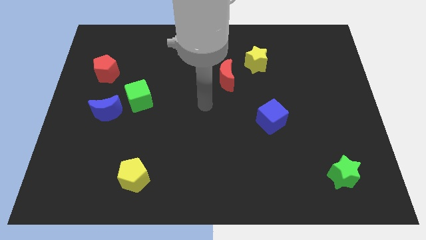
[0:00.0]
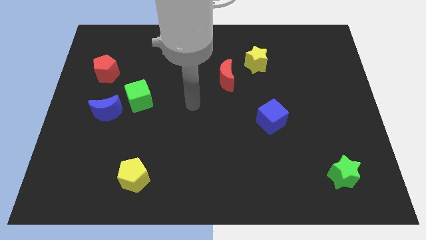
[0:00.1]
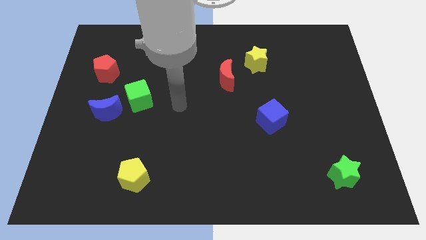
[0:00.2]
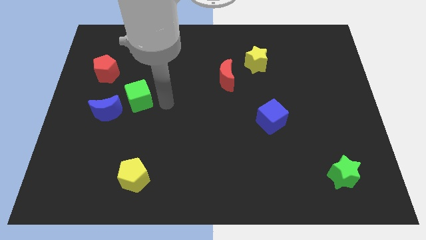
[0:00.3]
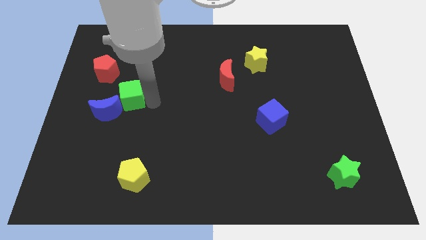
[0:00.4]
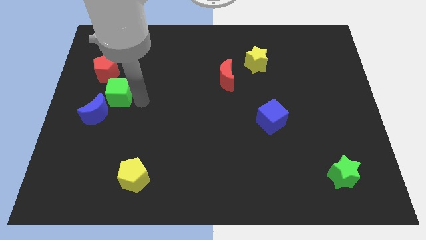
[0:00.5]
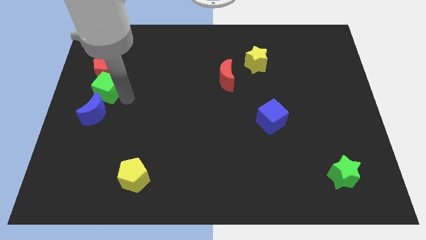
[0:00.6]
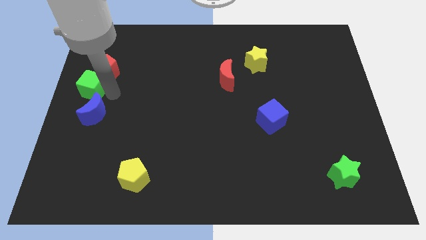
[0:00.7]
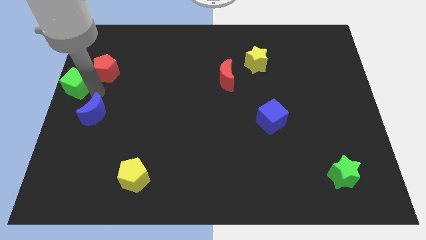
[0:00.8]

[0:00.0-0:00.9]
pull the blue moon apart from the green cube

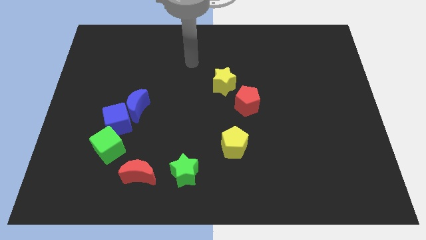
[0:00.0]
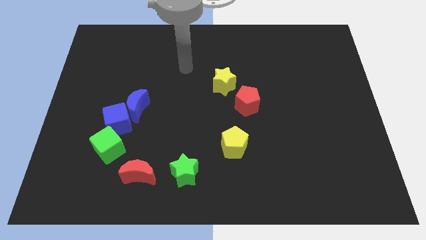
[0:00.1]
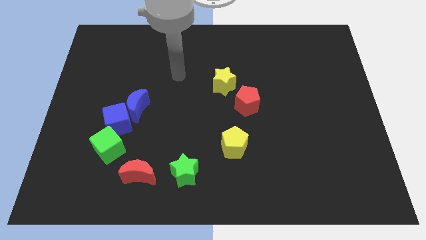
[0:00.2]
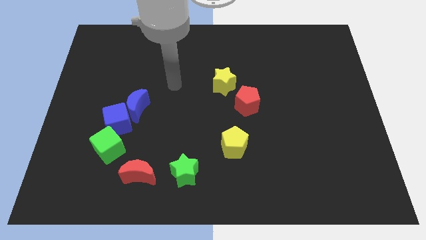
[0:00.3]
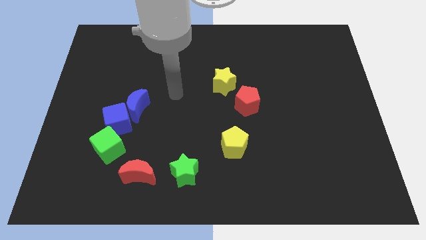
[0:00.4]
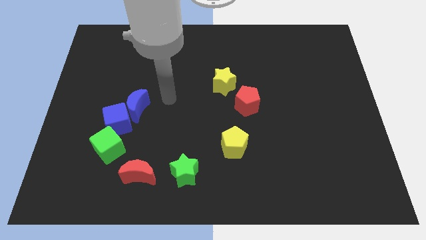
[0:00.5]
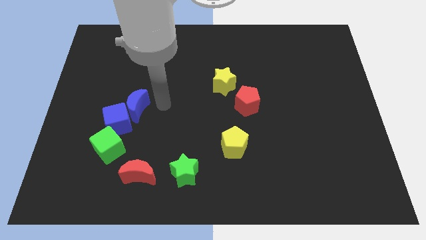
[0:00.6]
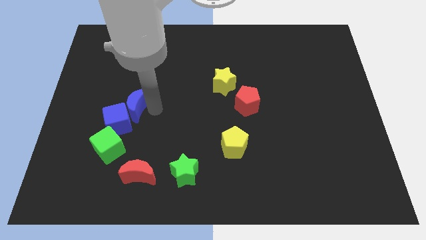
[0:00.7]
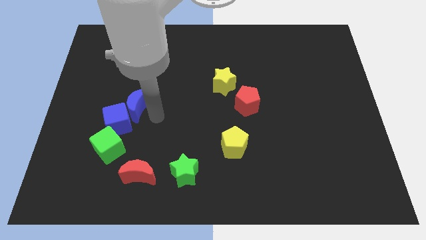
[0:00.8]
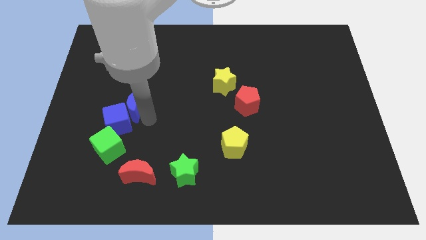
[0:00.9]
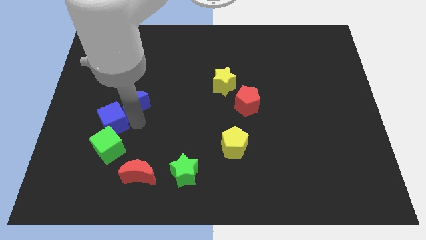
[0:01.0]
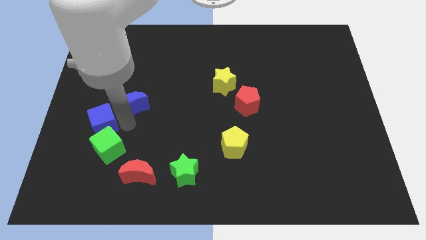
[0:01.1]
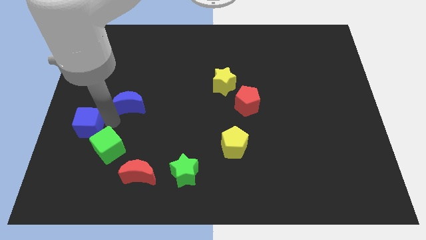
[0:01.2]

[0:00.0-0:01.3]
move the blue moon away from the blue cube

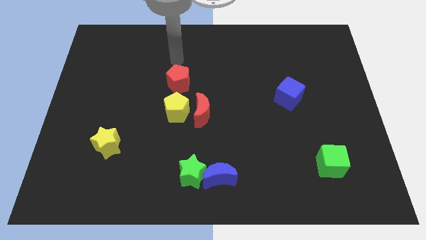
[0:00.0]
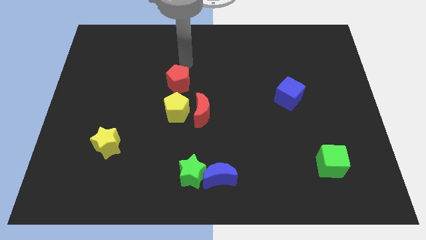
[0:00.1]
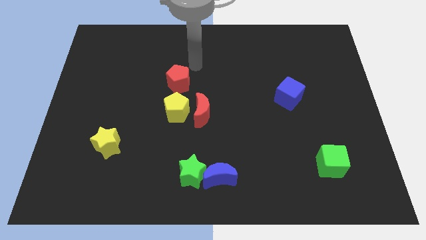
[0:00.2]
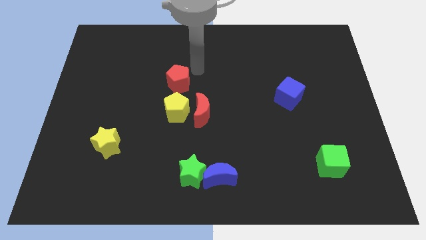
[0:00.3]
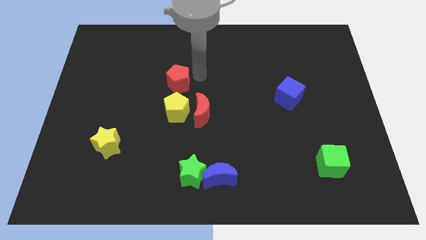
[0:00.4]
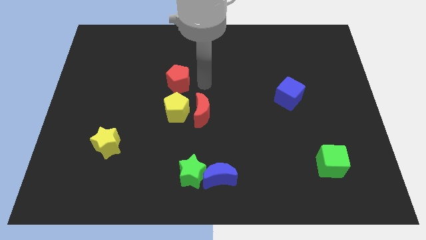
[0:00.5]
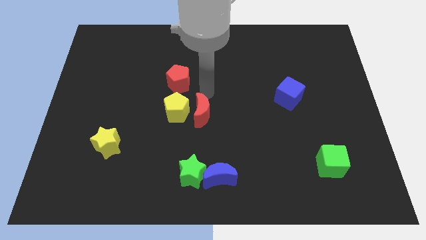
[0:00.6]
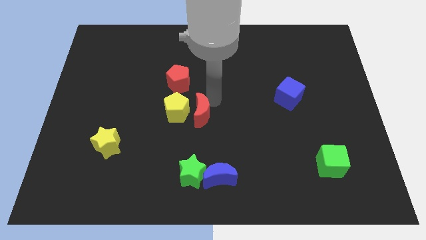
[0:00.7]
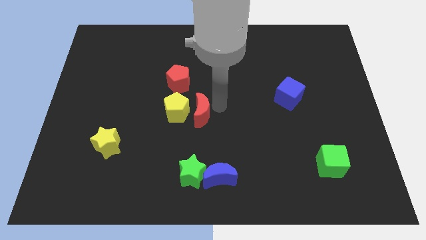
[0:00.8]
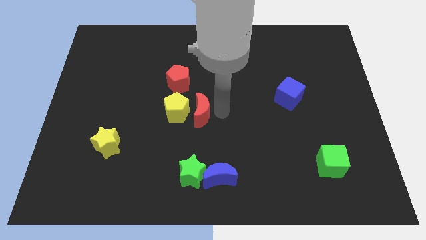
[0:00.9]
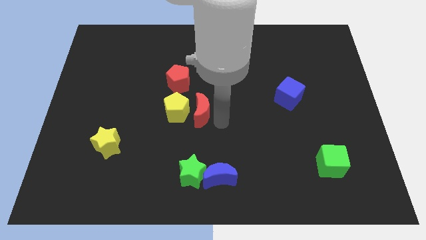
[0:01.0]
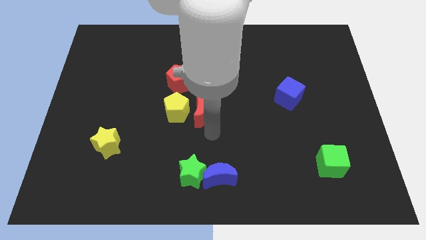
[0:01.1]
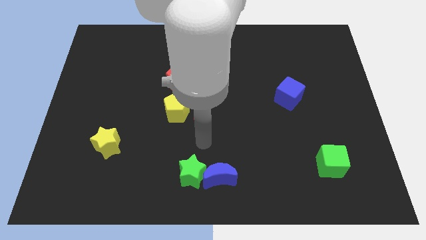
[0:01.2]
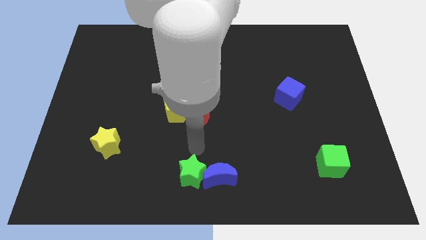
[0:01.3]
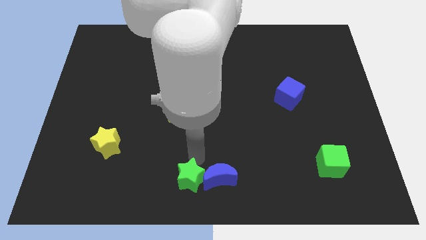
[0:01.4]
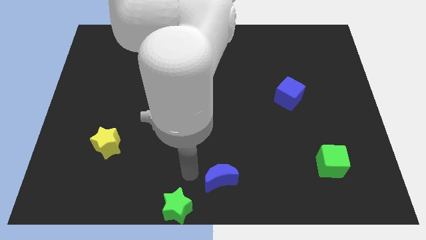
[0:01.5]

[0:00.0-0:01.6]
pull the blue moon apart from the green star

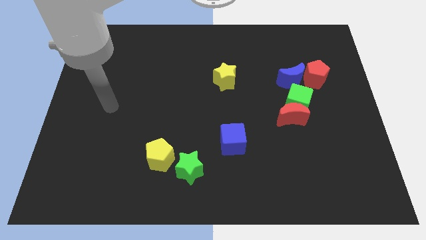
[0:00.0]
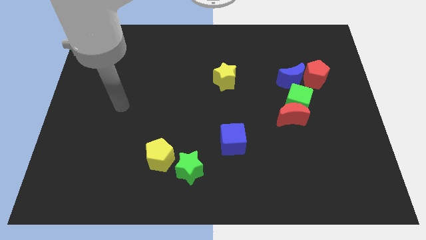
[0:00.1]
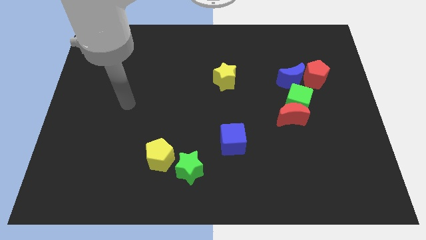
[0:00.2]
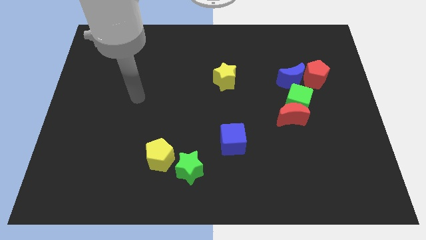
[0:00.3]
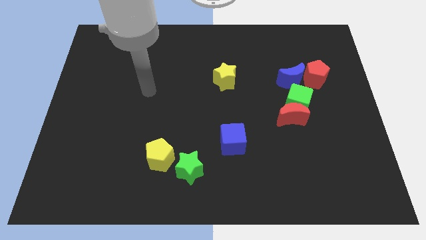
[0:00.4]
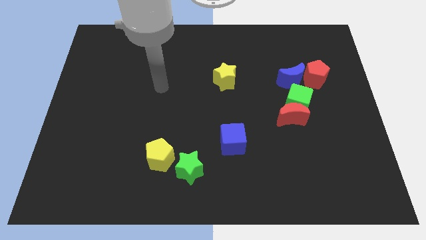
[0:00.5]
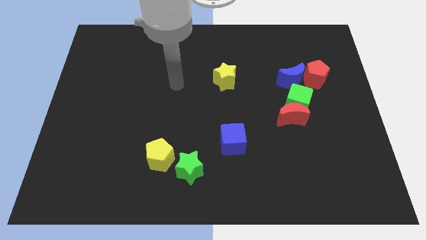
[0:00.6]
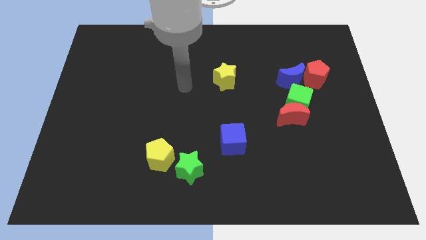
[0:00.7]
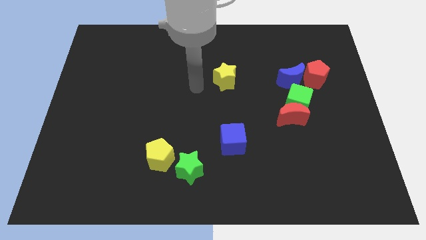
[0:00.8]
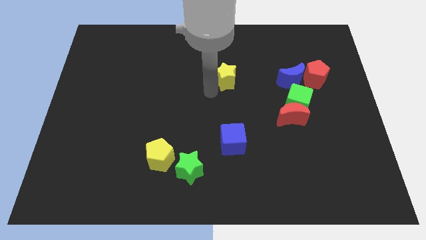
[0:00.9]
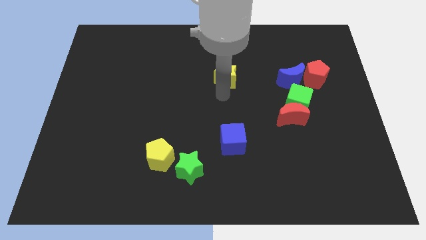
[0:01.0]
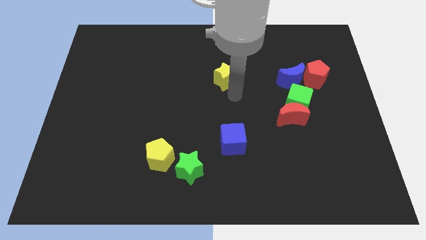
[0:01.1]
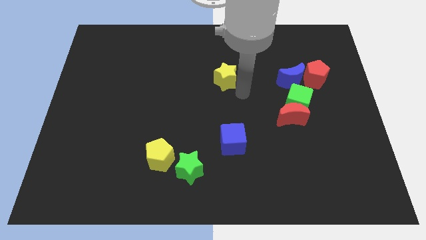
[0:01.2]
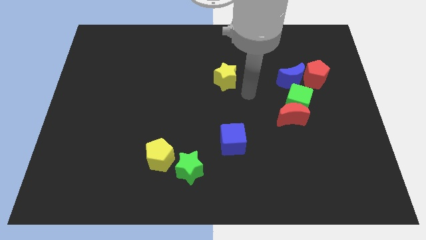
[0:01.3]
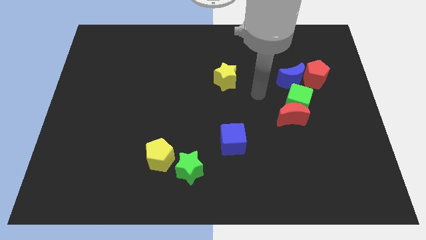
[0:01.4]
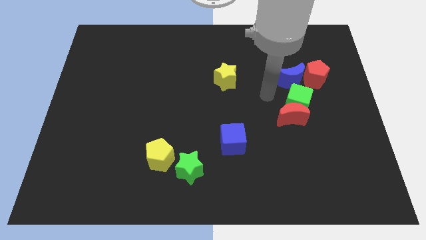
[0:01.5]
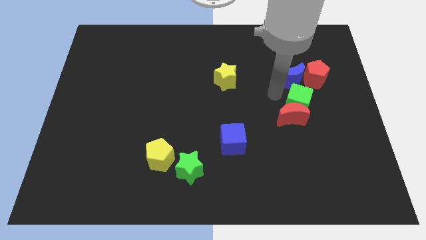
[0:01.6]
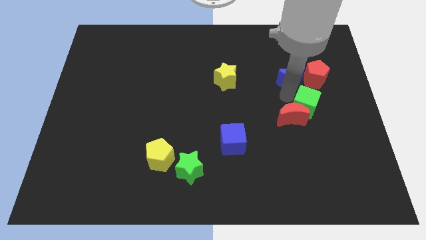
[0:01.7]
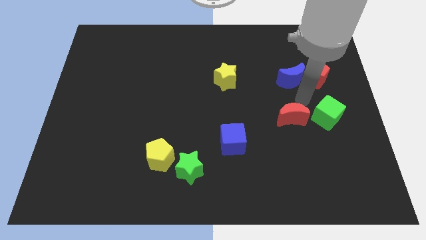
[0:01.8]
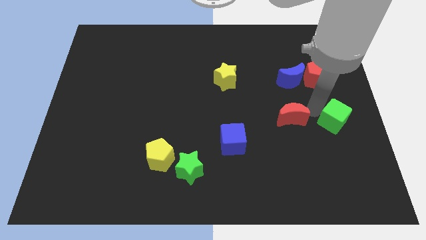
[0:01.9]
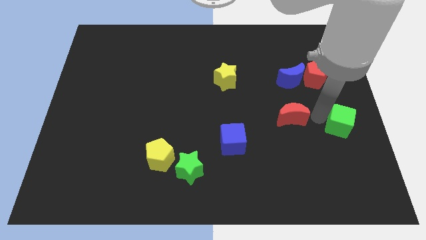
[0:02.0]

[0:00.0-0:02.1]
move the red moon away from the green cube

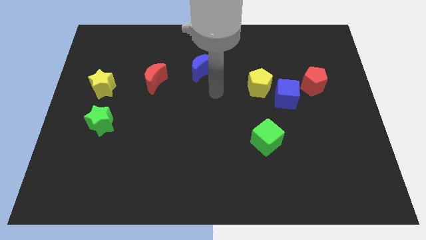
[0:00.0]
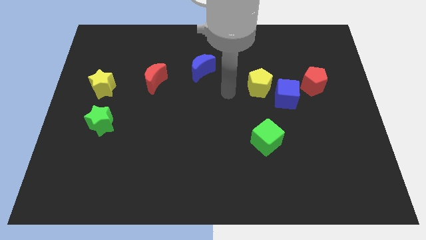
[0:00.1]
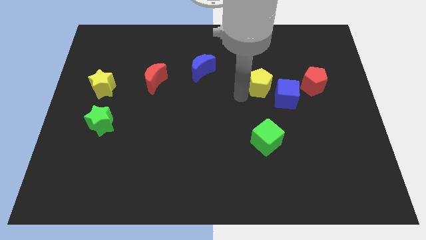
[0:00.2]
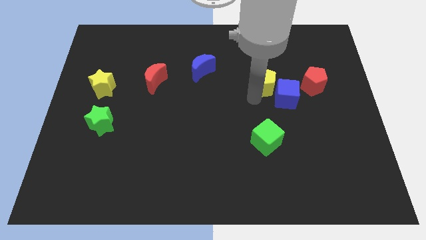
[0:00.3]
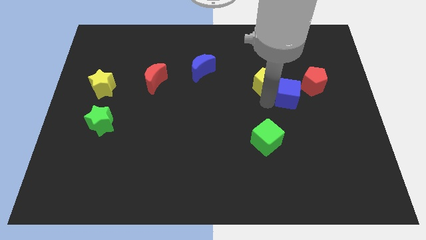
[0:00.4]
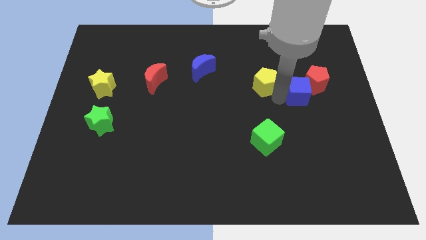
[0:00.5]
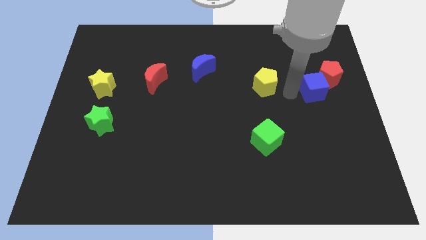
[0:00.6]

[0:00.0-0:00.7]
separate the yellow pentagon from the blue cube

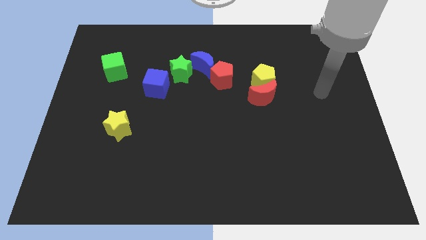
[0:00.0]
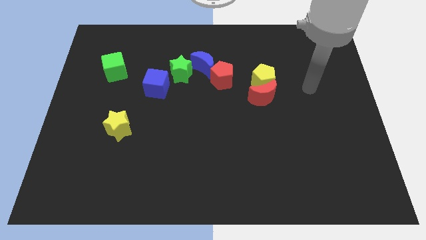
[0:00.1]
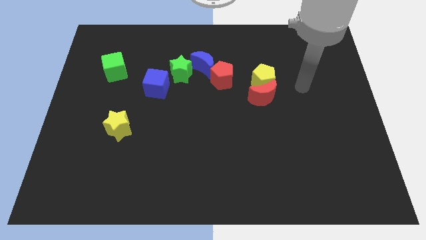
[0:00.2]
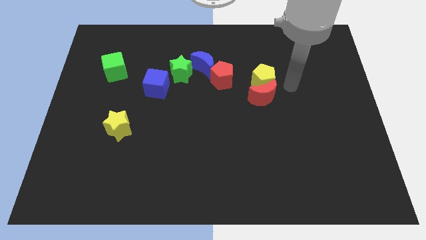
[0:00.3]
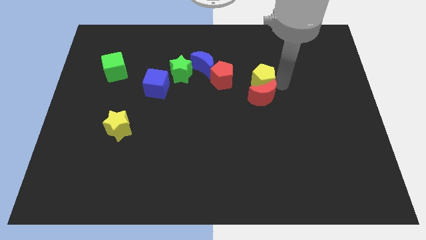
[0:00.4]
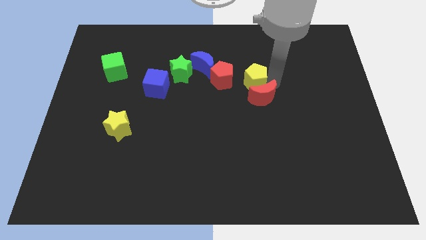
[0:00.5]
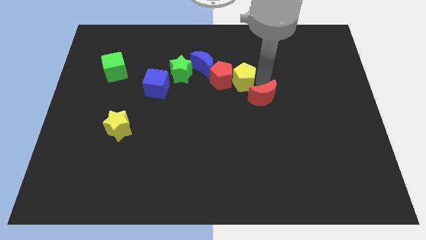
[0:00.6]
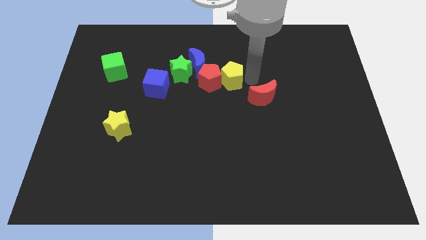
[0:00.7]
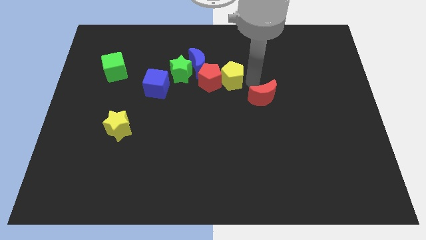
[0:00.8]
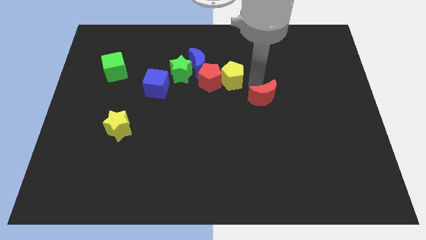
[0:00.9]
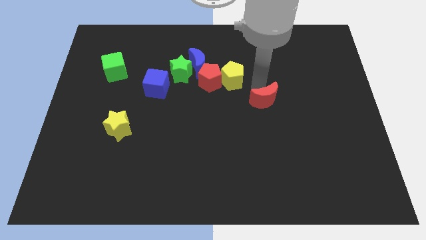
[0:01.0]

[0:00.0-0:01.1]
move the red moon away from the yellow pentagon

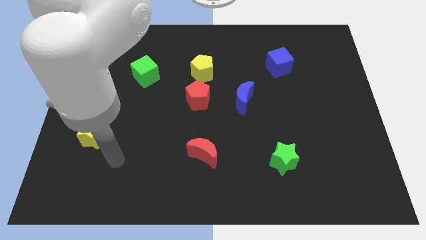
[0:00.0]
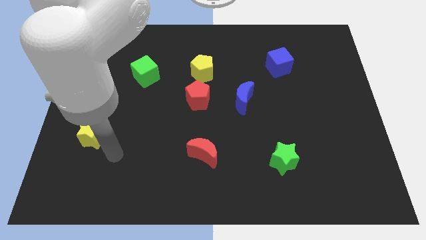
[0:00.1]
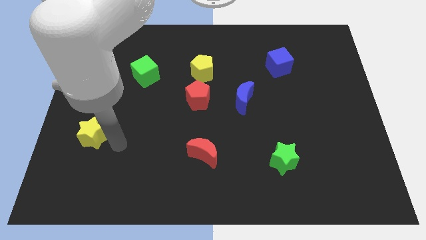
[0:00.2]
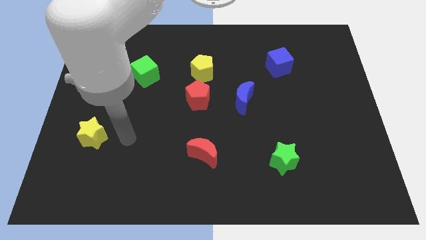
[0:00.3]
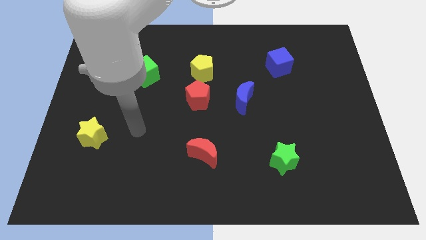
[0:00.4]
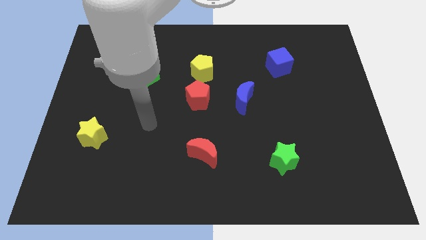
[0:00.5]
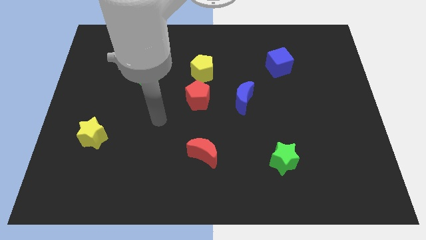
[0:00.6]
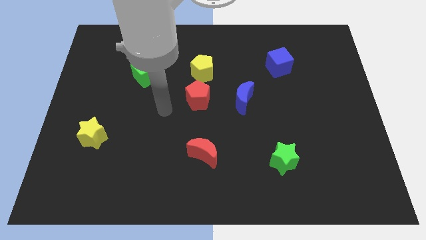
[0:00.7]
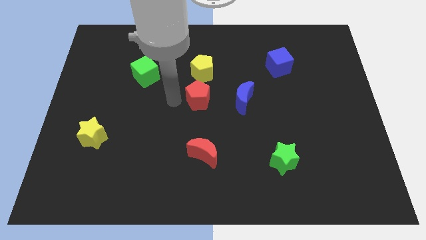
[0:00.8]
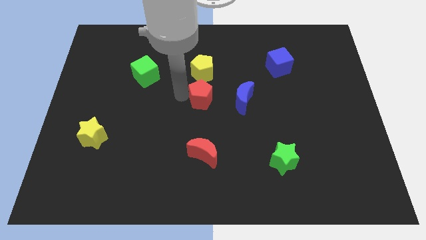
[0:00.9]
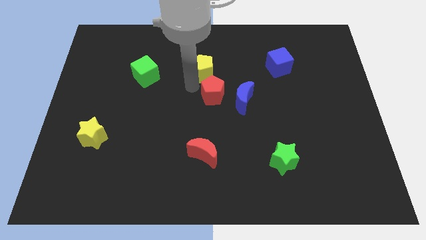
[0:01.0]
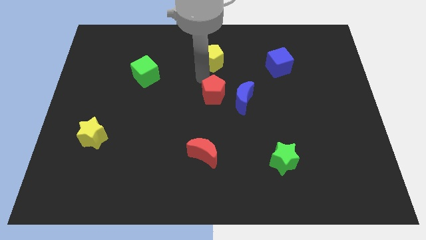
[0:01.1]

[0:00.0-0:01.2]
separate the red pentagon from the yellow pentagon

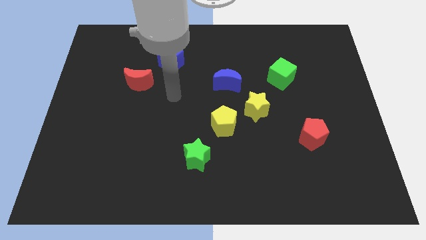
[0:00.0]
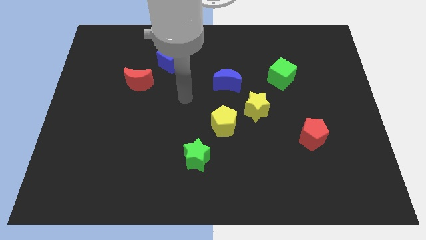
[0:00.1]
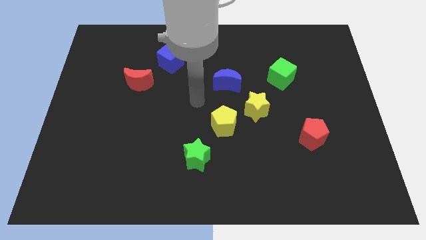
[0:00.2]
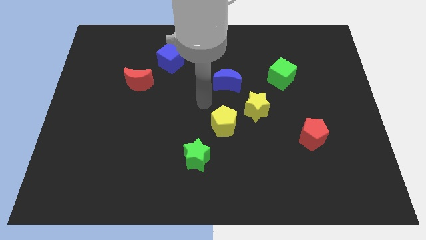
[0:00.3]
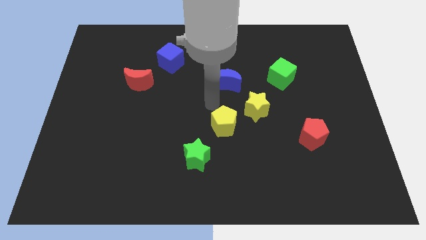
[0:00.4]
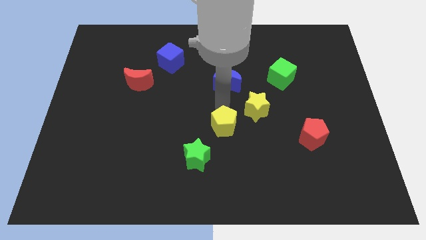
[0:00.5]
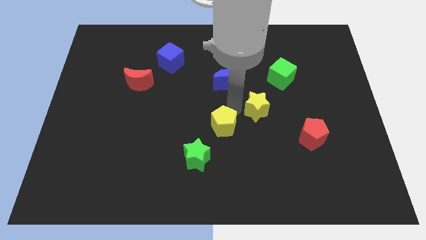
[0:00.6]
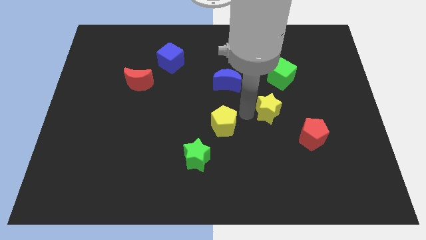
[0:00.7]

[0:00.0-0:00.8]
separate the yellow pentagon from the yellow star
